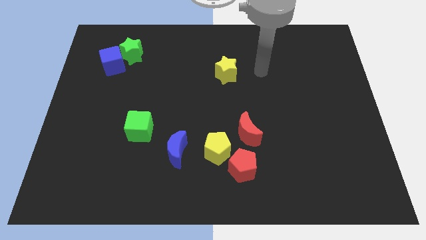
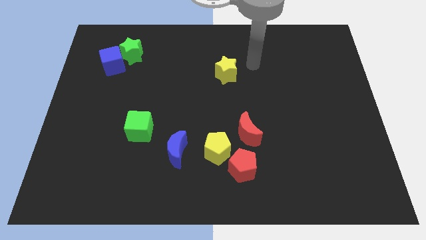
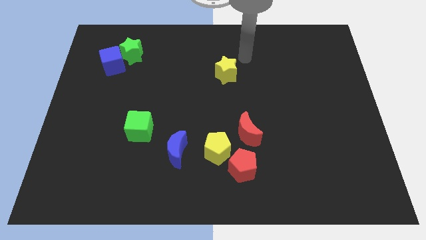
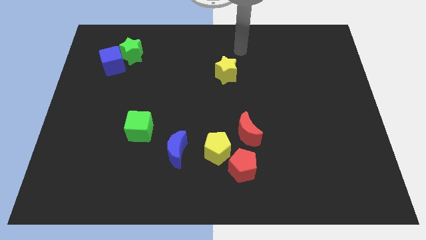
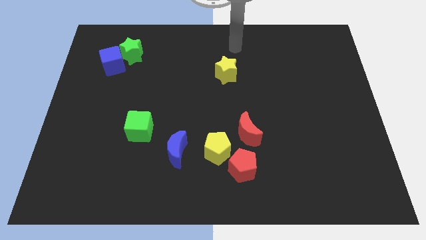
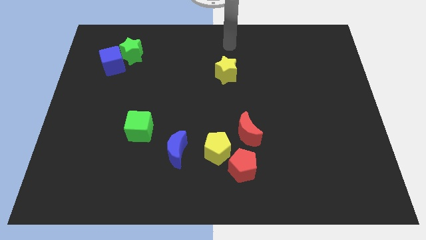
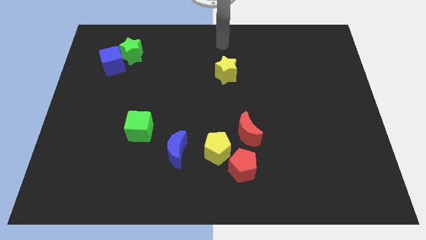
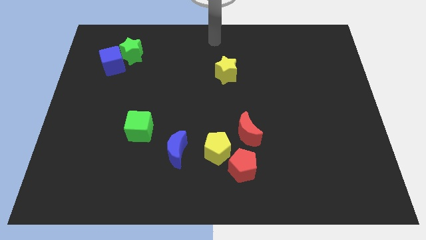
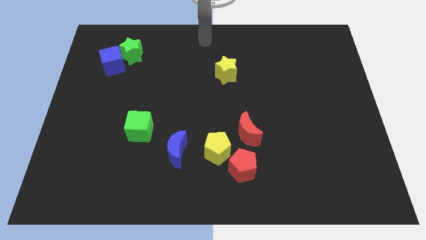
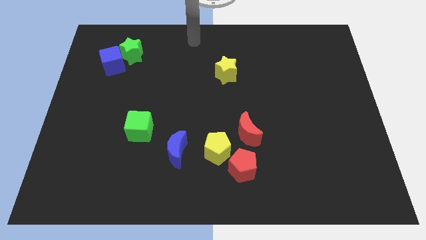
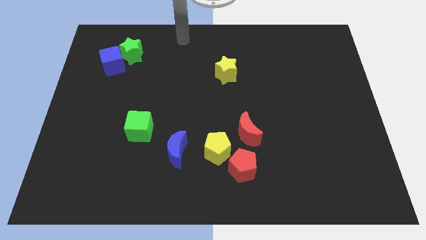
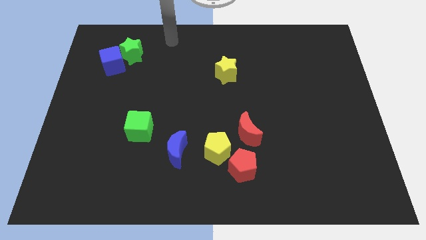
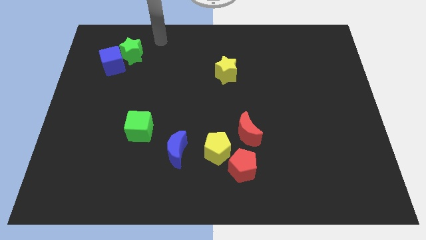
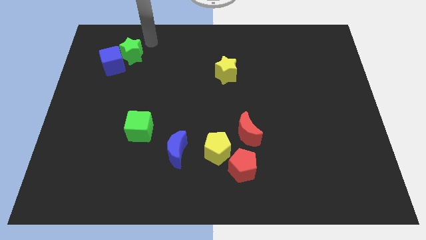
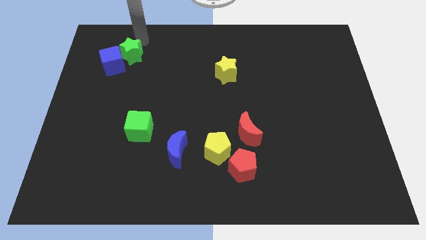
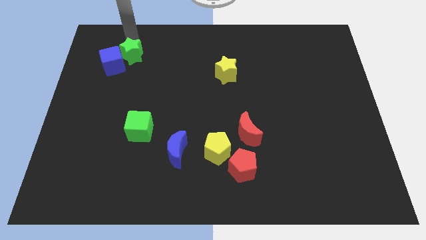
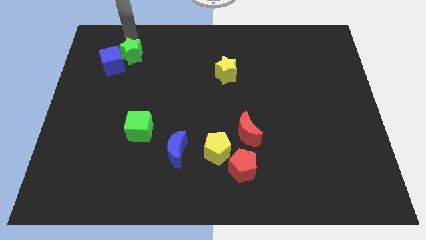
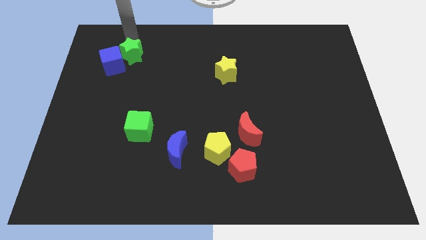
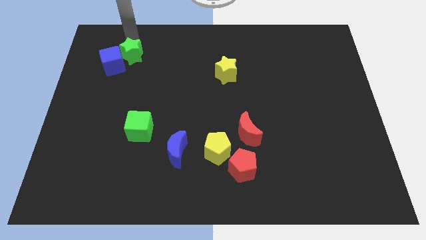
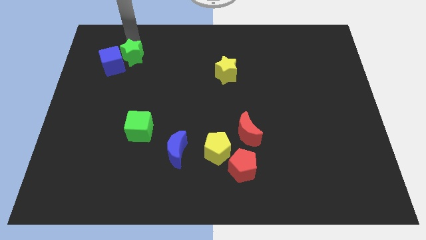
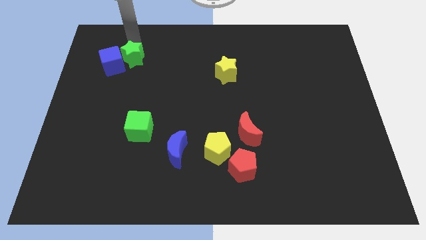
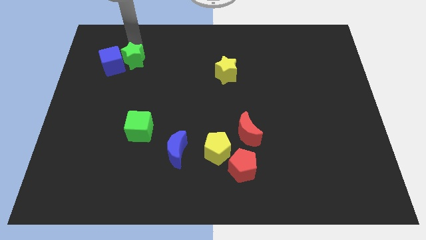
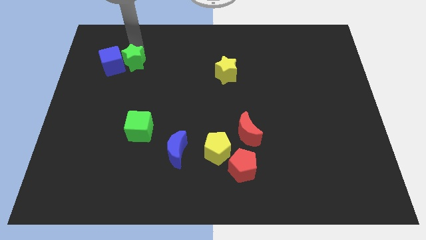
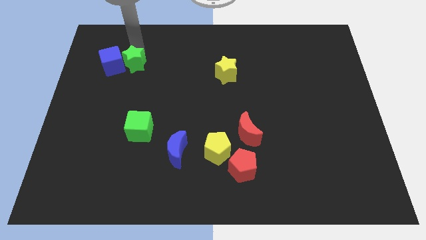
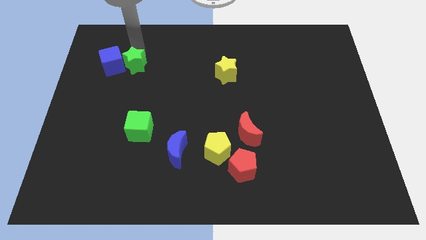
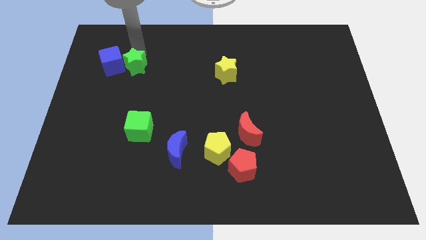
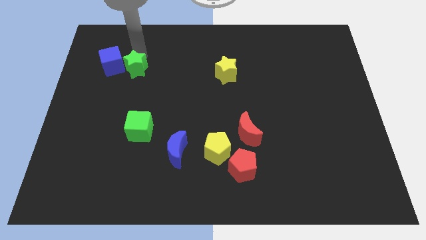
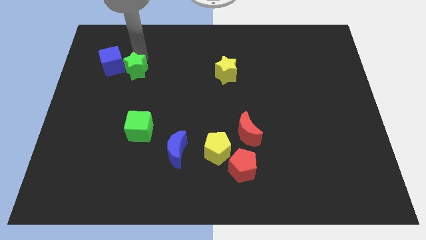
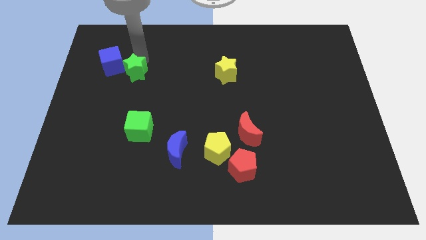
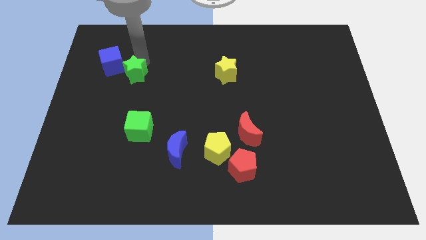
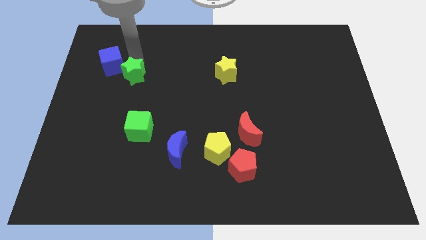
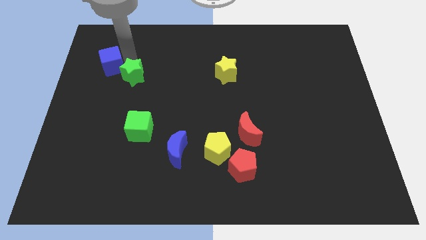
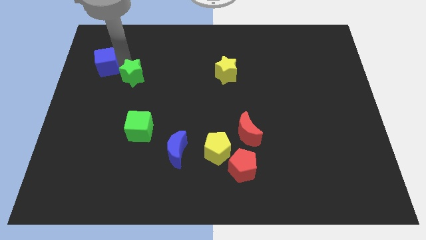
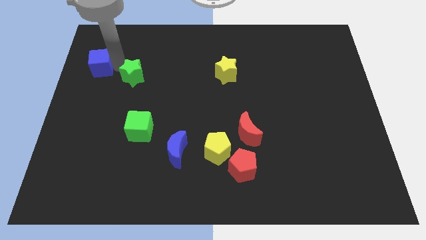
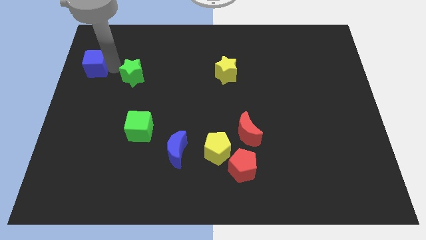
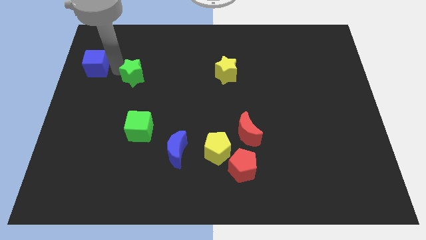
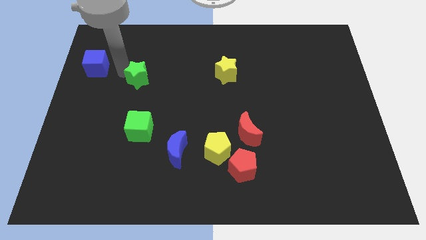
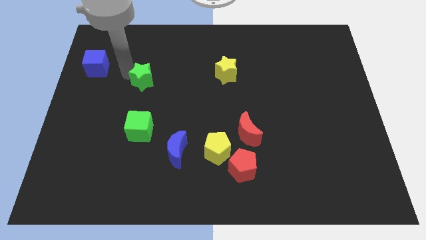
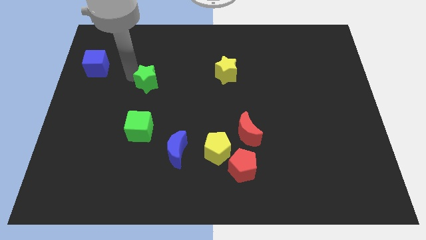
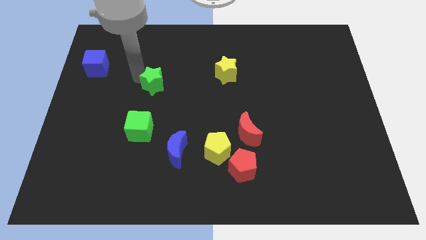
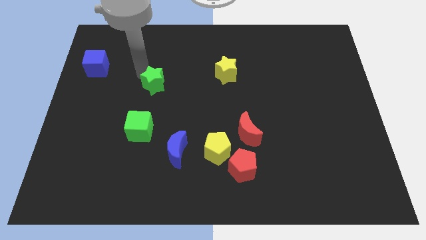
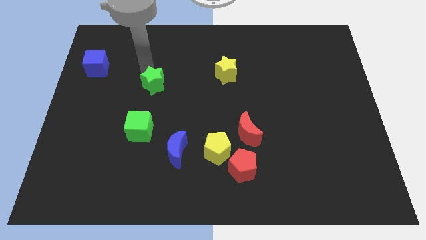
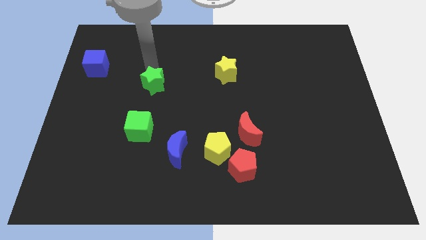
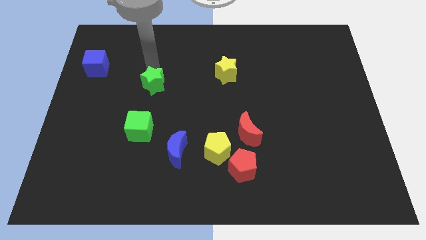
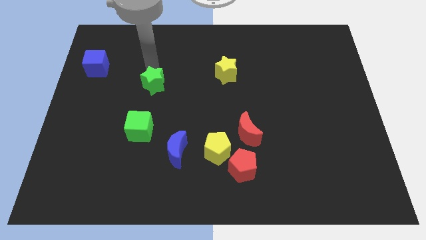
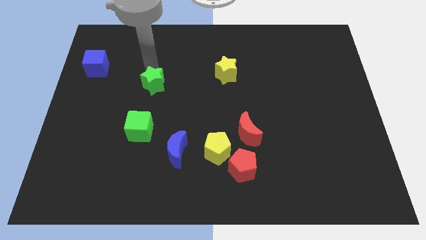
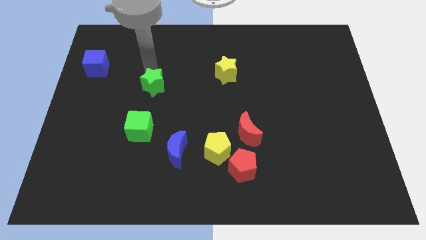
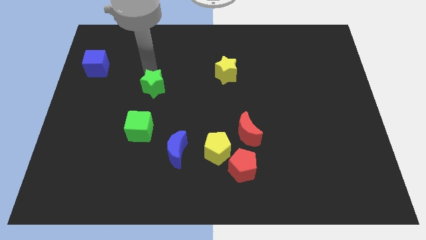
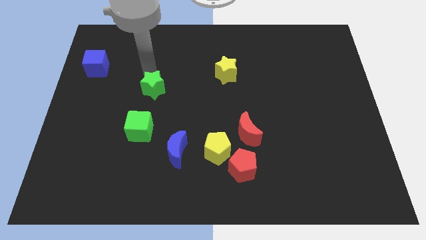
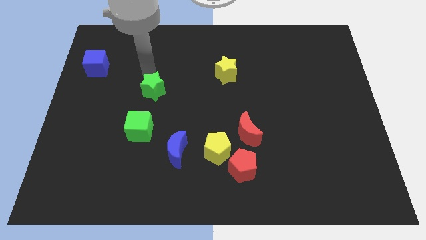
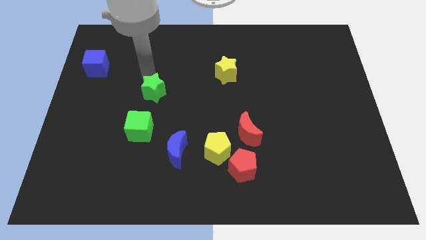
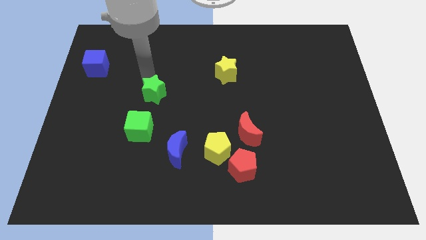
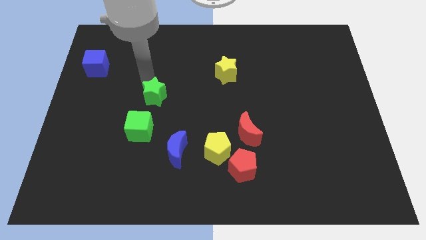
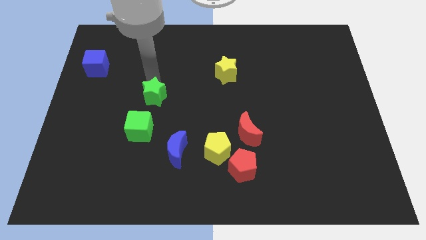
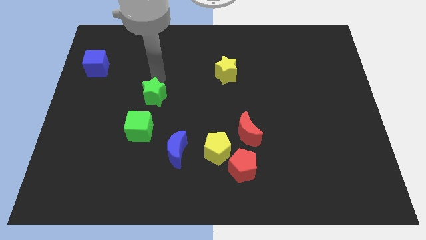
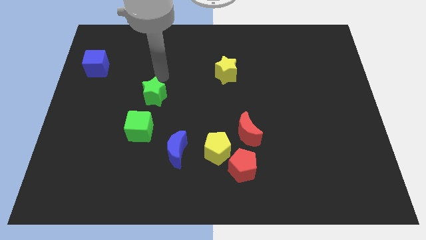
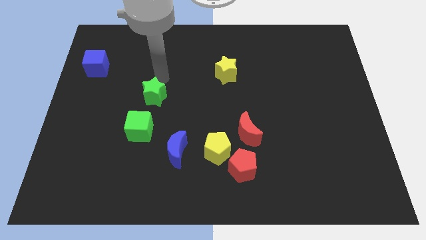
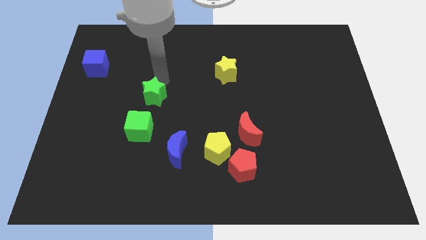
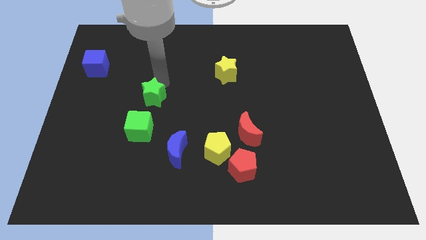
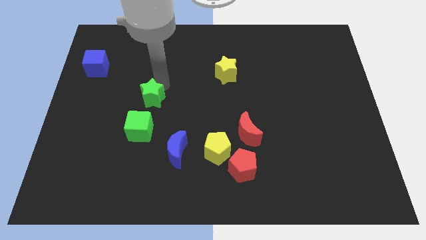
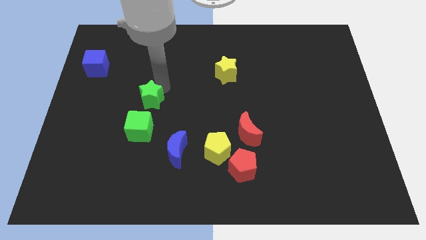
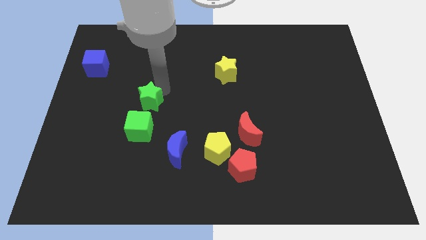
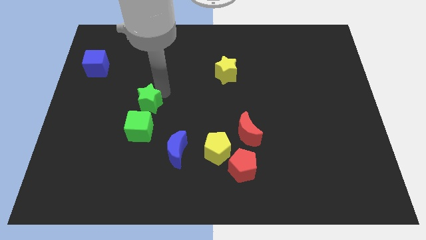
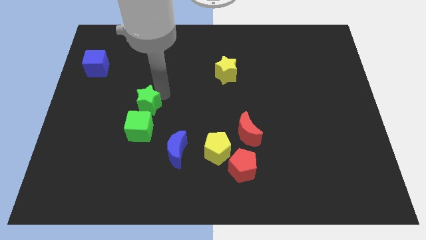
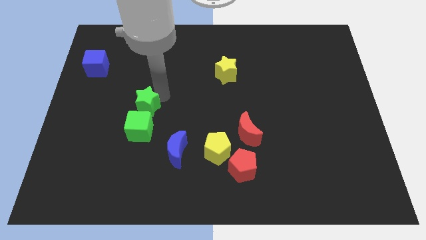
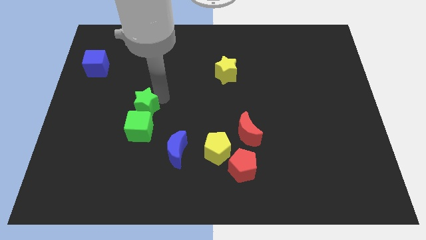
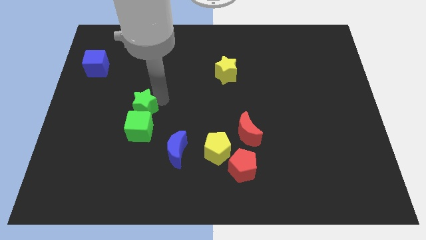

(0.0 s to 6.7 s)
push the green star next to the green cube

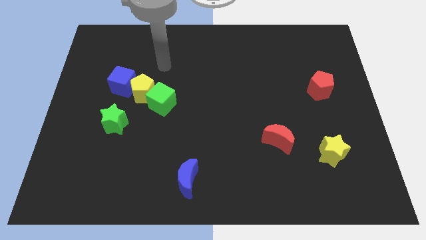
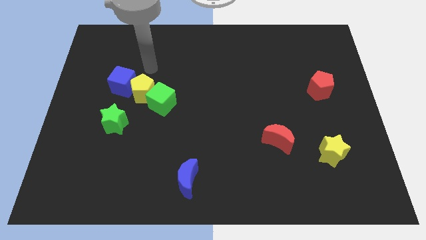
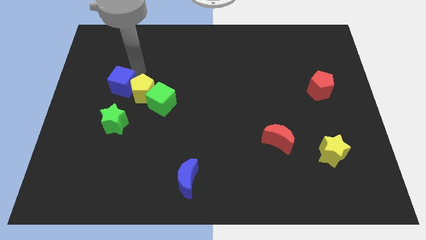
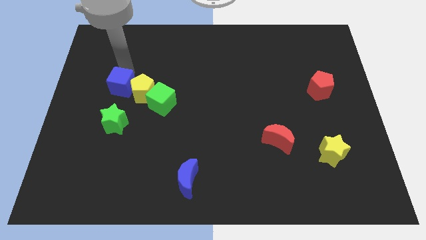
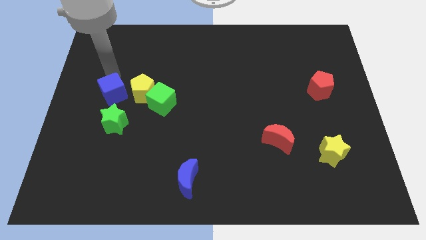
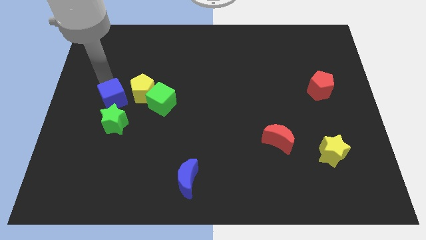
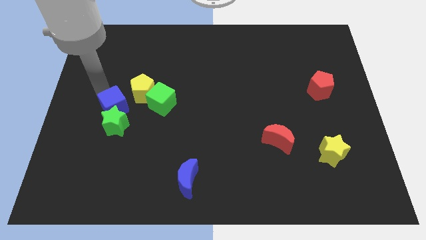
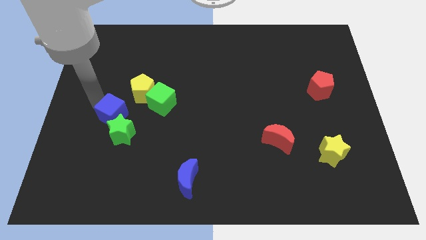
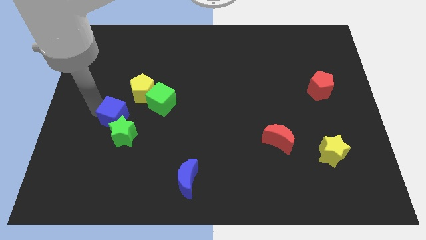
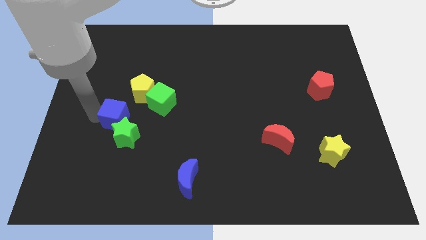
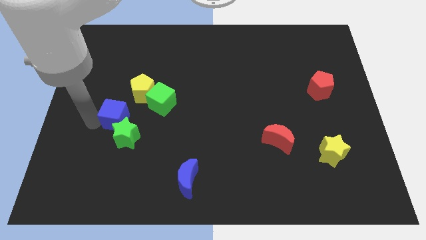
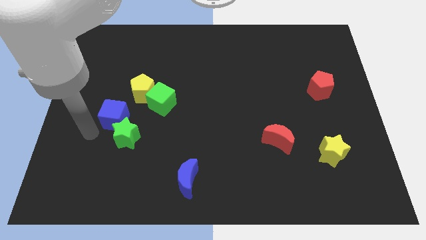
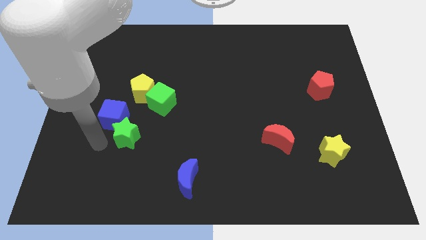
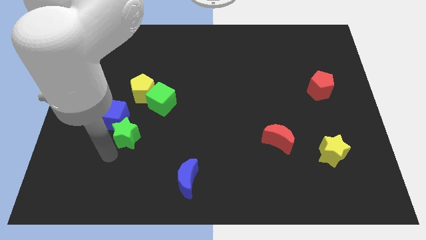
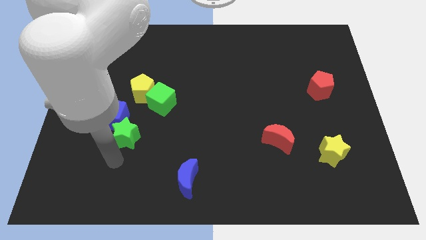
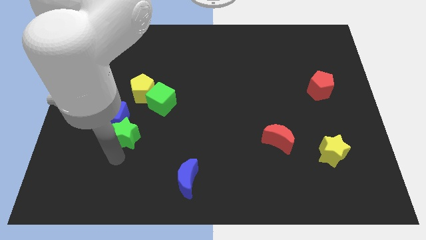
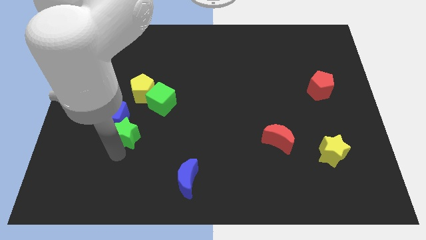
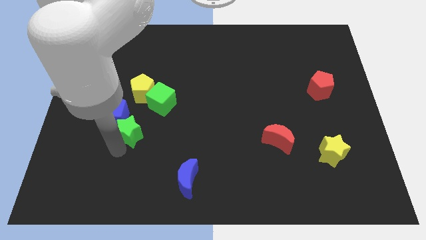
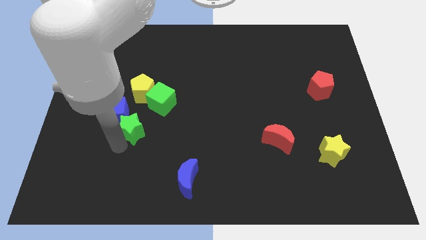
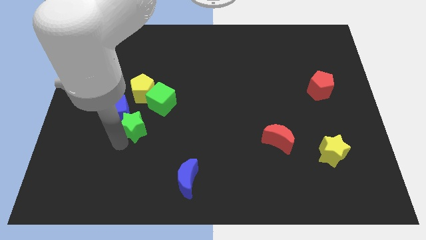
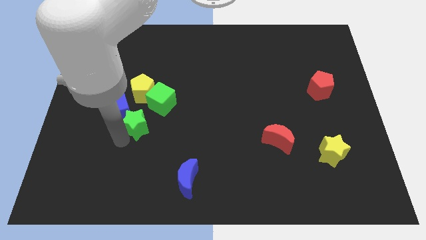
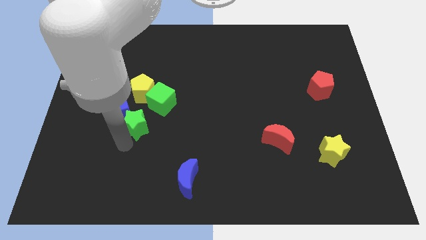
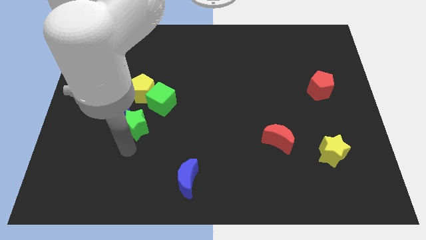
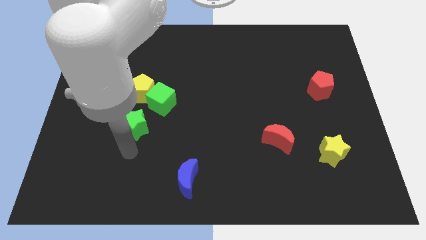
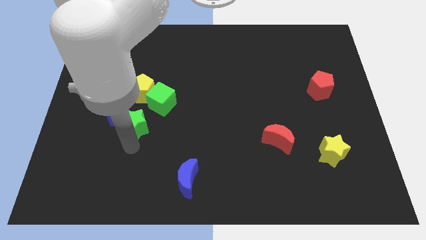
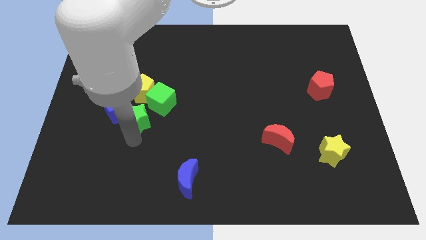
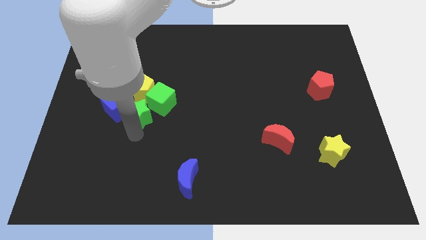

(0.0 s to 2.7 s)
put the green star next to the green cube
